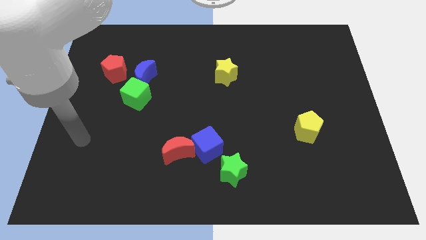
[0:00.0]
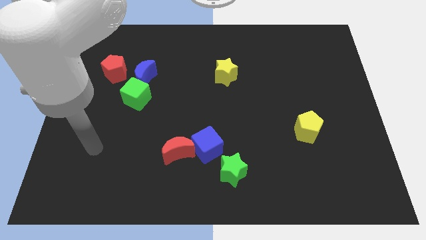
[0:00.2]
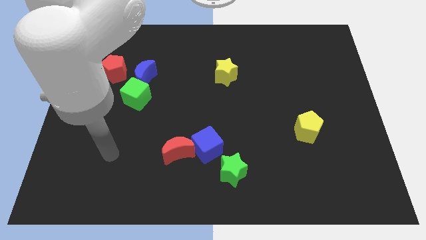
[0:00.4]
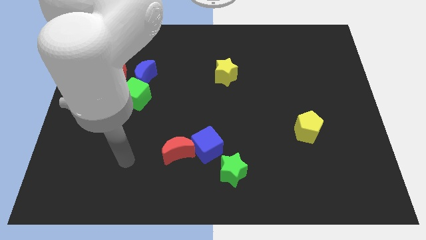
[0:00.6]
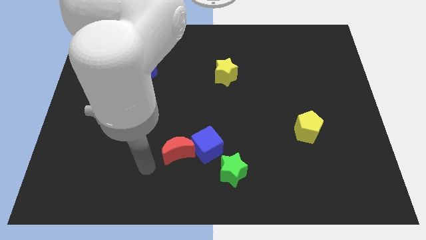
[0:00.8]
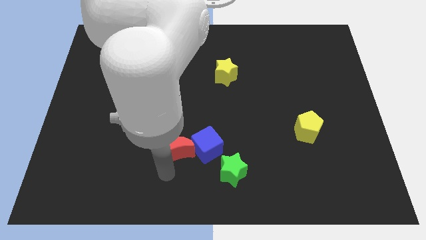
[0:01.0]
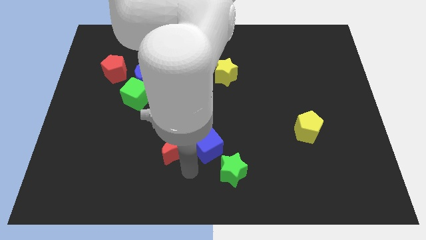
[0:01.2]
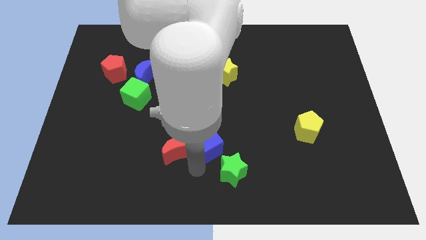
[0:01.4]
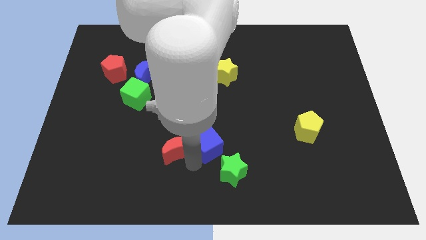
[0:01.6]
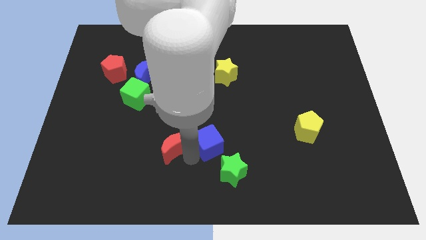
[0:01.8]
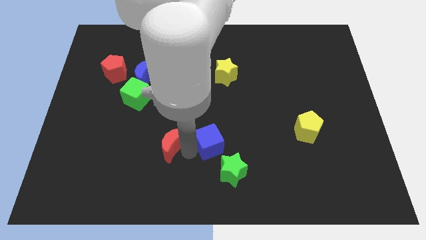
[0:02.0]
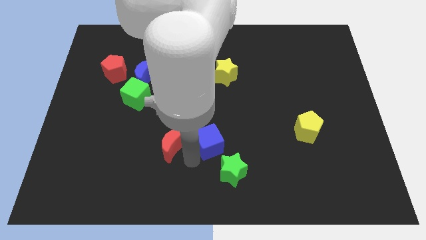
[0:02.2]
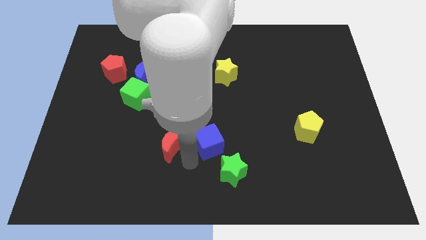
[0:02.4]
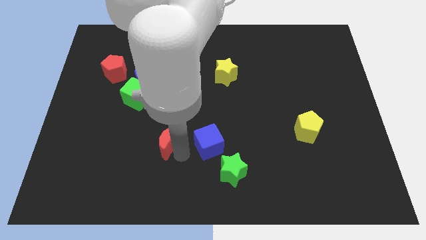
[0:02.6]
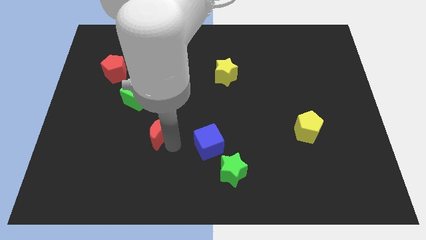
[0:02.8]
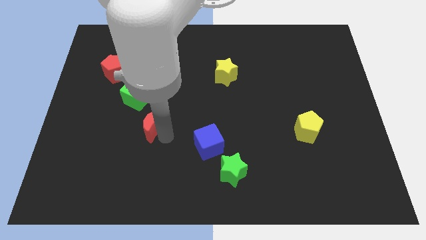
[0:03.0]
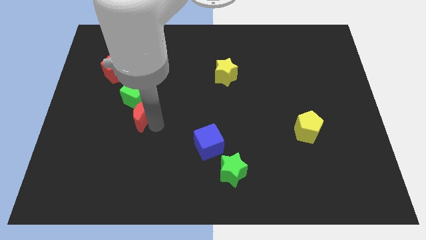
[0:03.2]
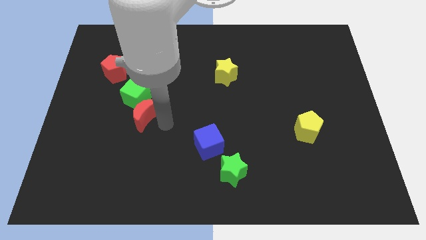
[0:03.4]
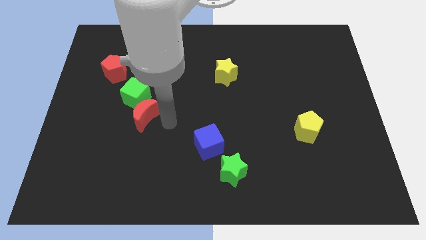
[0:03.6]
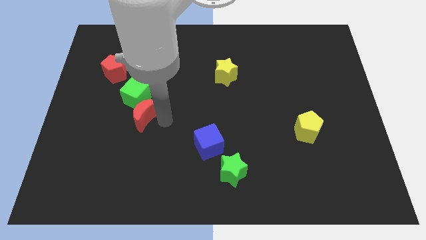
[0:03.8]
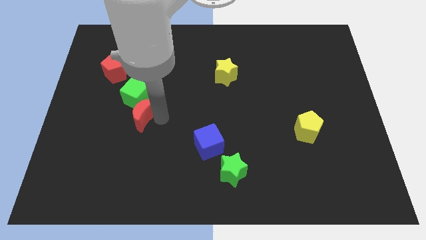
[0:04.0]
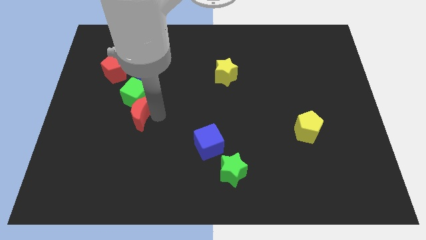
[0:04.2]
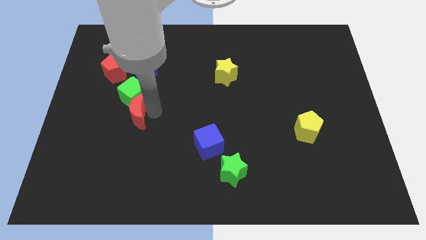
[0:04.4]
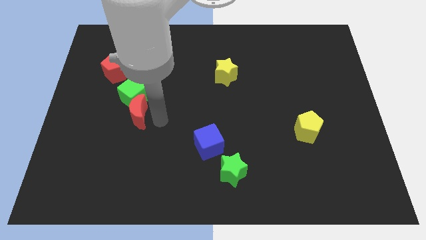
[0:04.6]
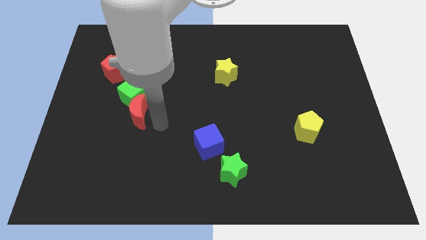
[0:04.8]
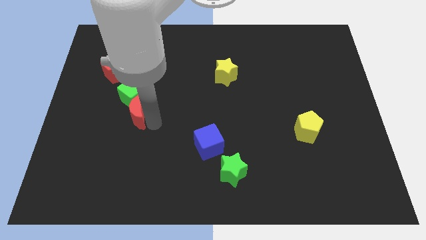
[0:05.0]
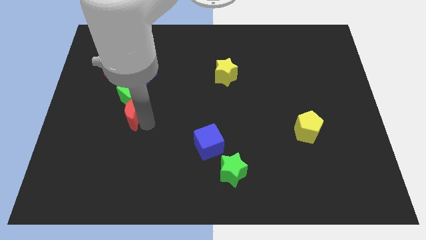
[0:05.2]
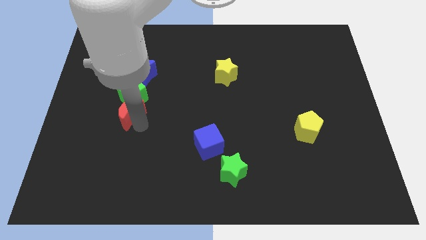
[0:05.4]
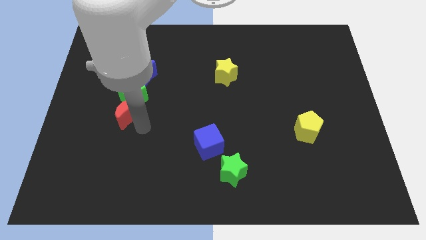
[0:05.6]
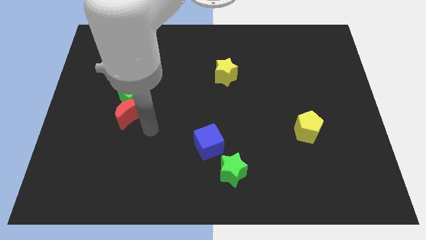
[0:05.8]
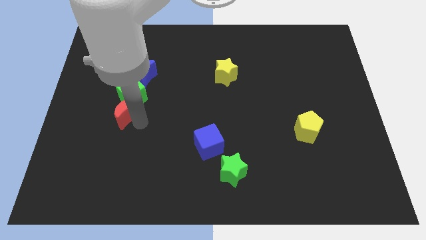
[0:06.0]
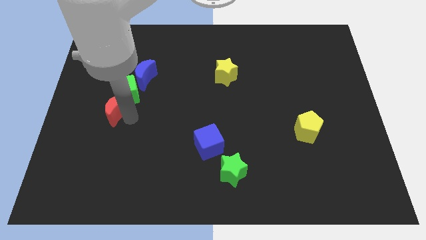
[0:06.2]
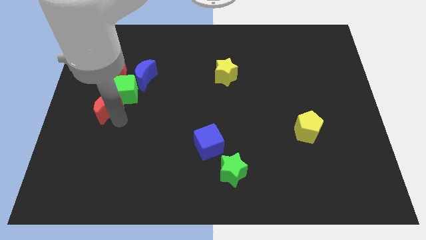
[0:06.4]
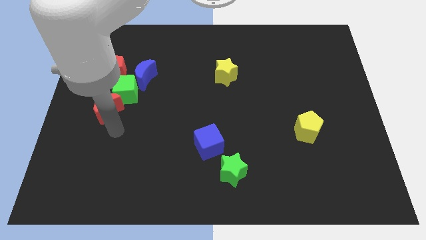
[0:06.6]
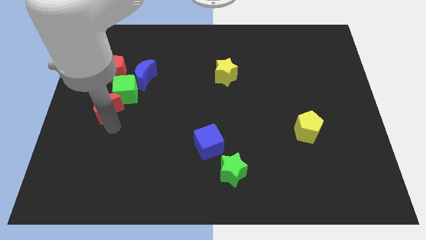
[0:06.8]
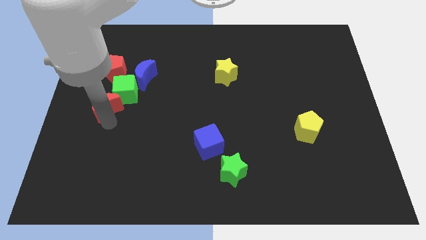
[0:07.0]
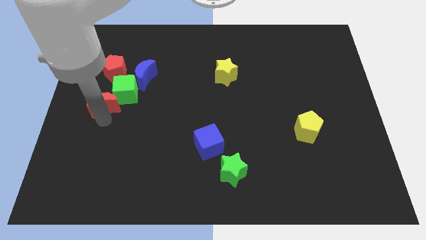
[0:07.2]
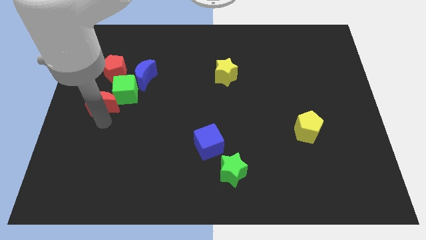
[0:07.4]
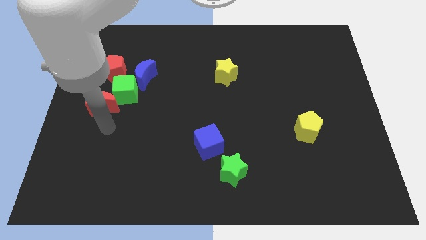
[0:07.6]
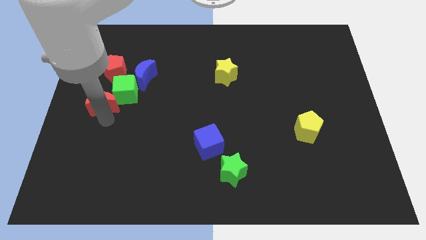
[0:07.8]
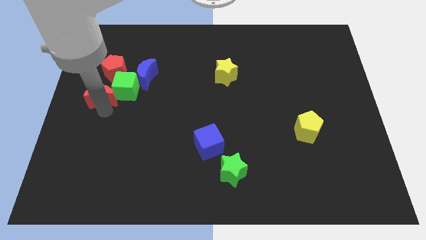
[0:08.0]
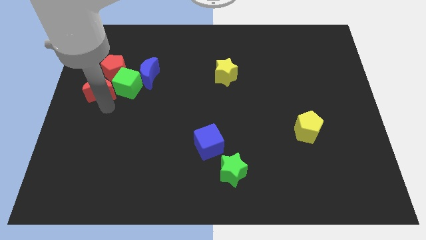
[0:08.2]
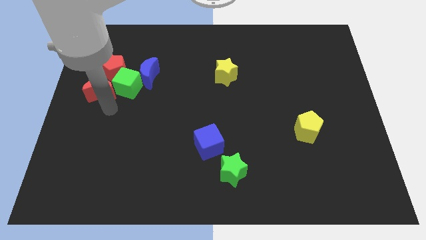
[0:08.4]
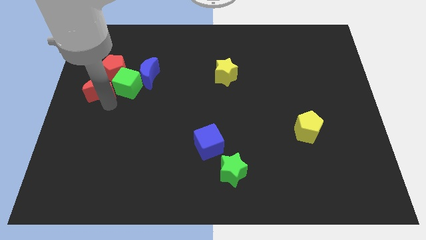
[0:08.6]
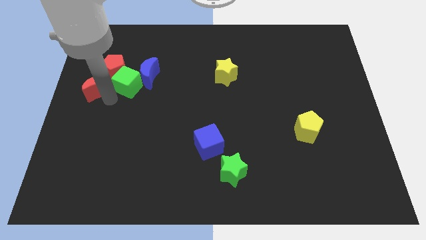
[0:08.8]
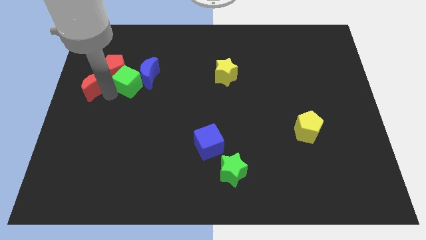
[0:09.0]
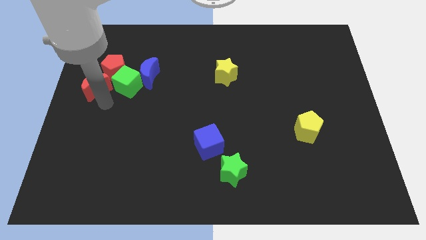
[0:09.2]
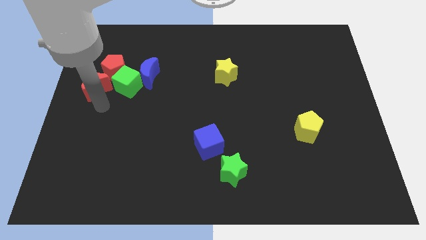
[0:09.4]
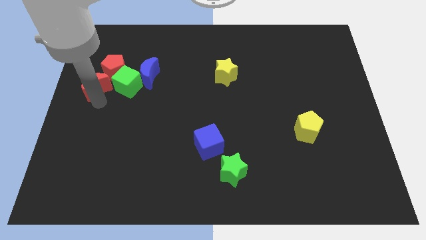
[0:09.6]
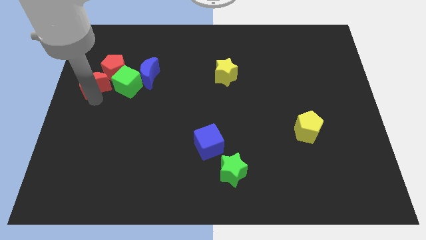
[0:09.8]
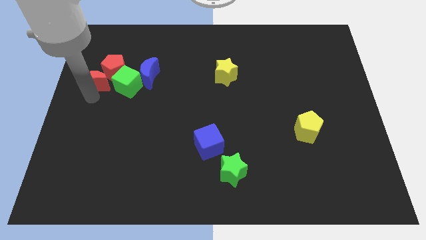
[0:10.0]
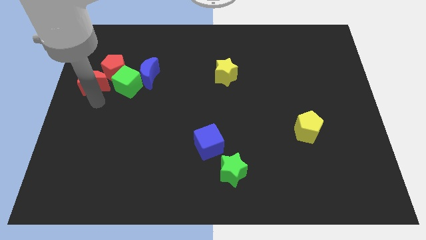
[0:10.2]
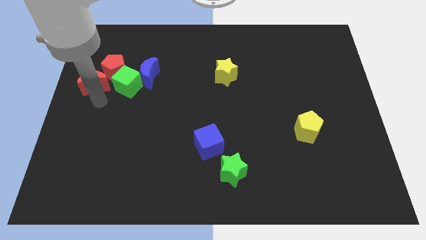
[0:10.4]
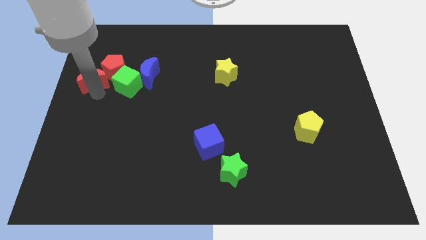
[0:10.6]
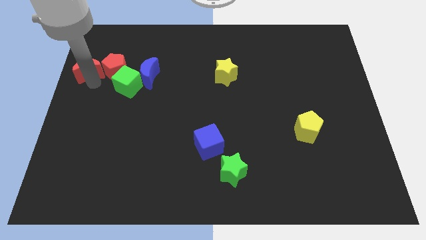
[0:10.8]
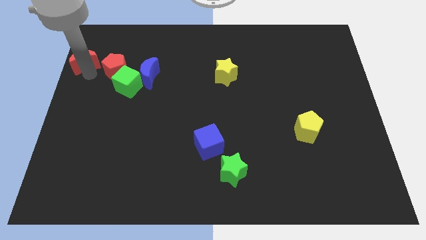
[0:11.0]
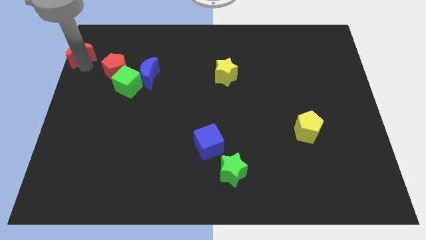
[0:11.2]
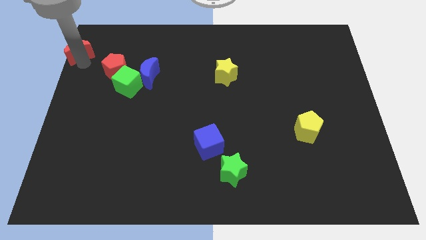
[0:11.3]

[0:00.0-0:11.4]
put the red moon to the top left

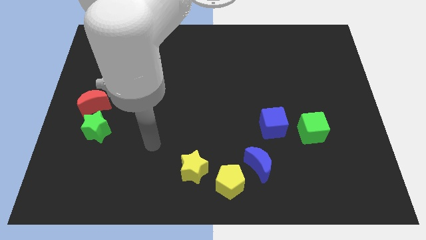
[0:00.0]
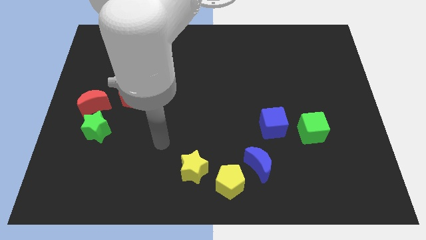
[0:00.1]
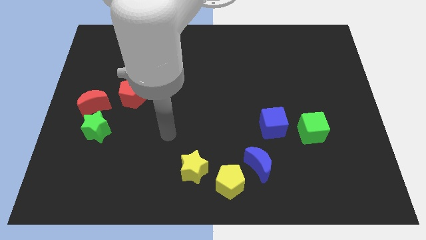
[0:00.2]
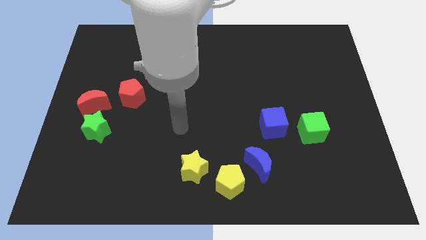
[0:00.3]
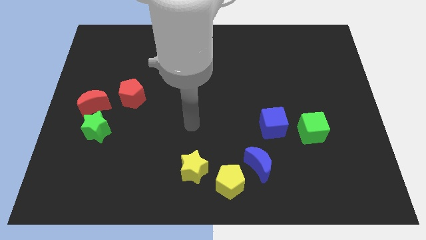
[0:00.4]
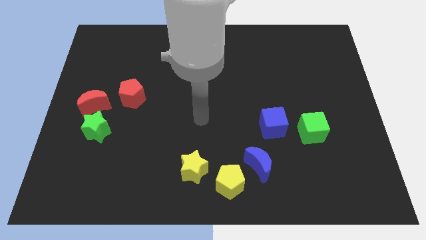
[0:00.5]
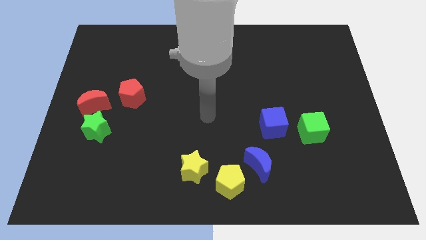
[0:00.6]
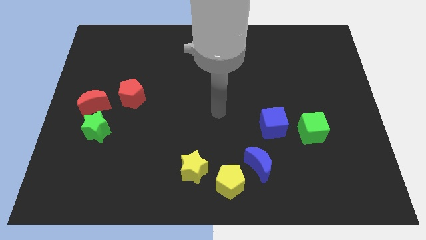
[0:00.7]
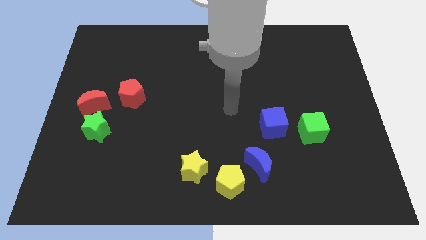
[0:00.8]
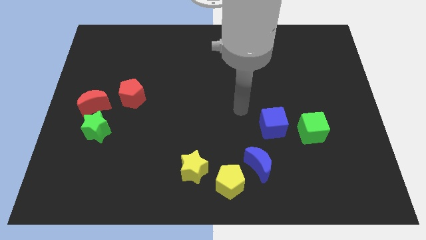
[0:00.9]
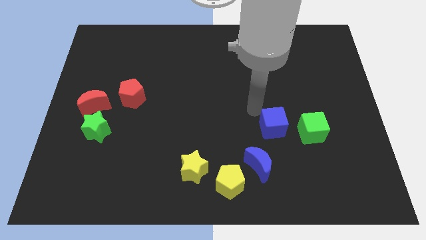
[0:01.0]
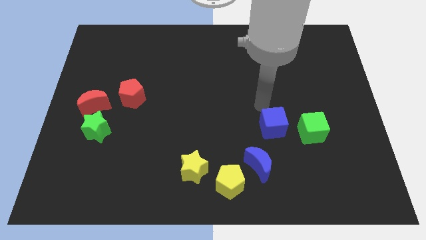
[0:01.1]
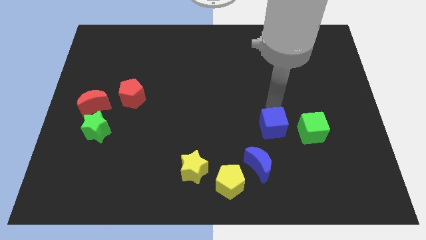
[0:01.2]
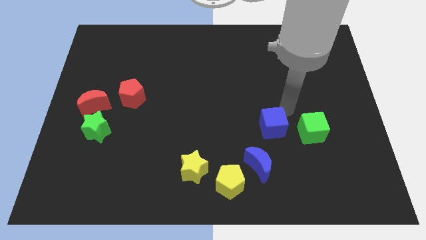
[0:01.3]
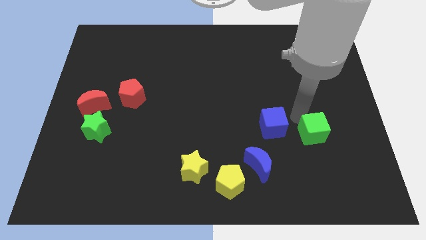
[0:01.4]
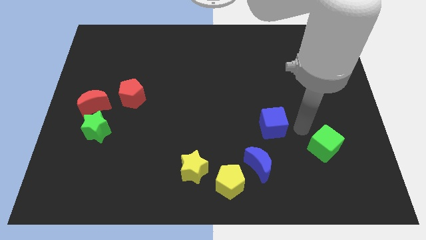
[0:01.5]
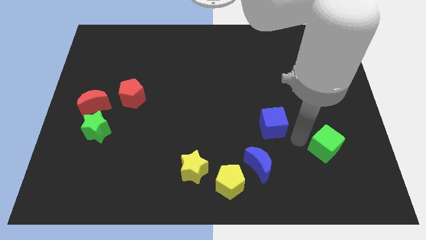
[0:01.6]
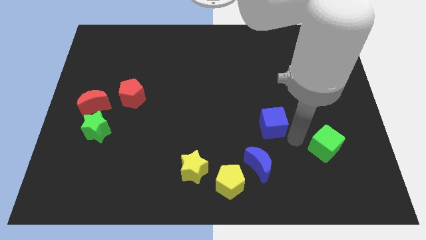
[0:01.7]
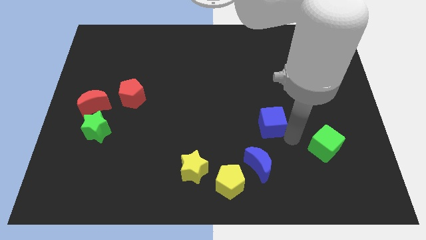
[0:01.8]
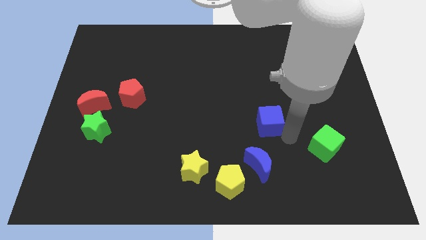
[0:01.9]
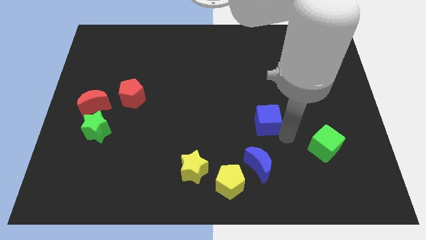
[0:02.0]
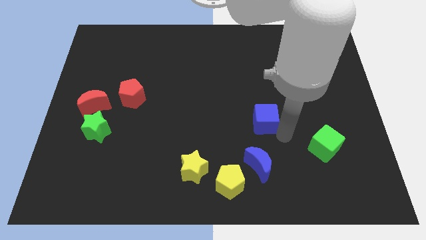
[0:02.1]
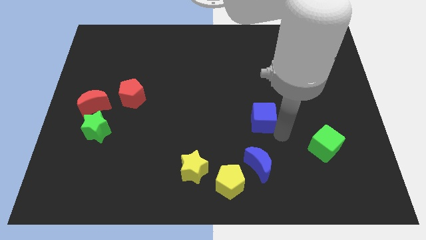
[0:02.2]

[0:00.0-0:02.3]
put the blue cube to the center

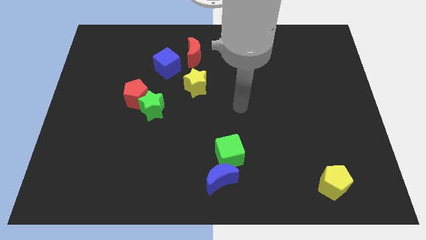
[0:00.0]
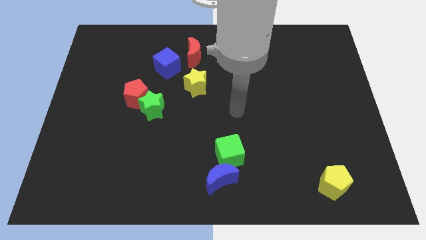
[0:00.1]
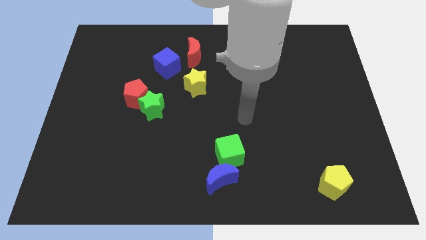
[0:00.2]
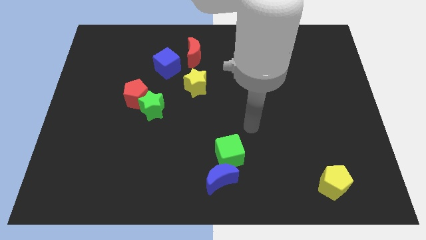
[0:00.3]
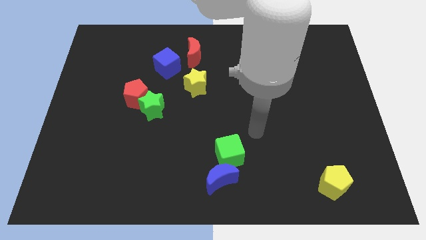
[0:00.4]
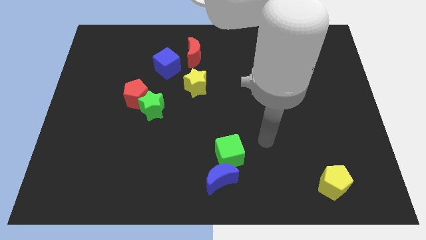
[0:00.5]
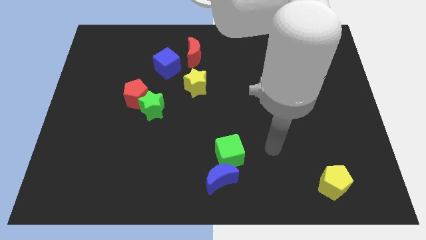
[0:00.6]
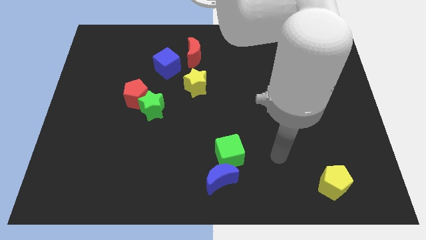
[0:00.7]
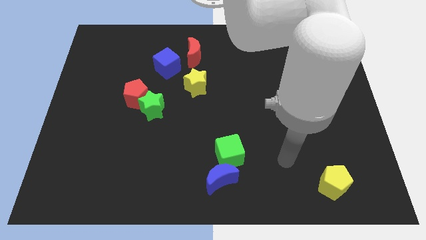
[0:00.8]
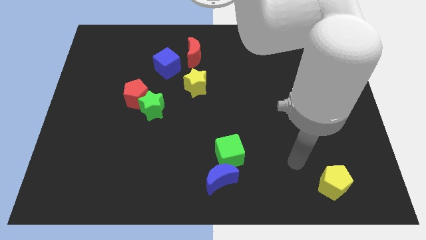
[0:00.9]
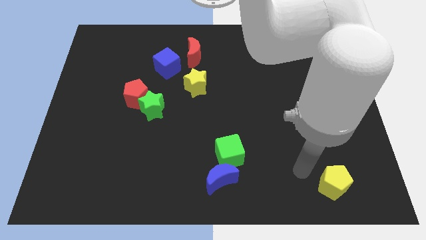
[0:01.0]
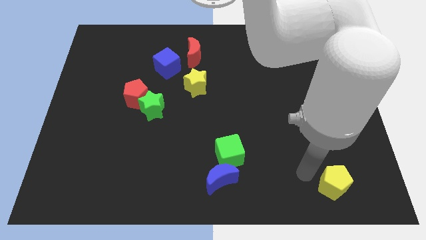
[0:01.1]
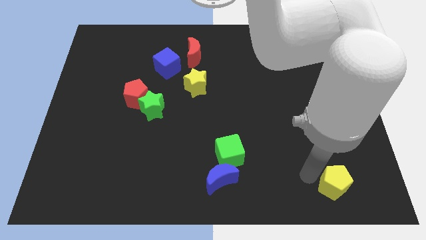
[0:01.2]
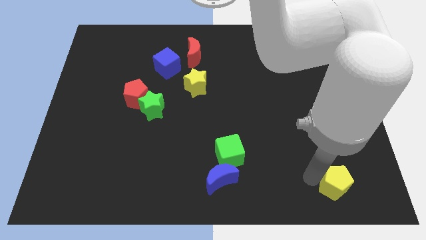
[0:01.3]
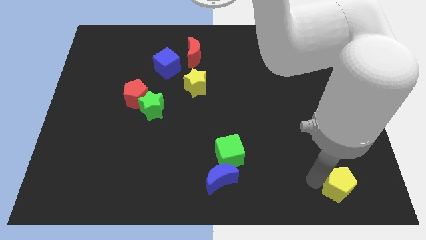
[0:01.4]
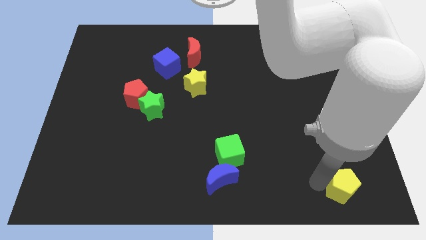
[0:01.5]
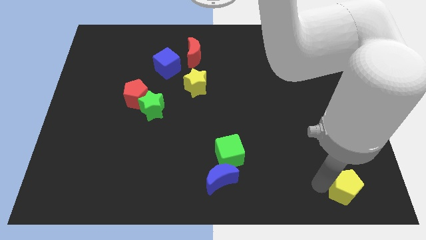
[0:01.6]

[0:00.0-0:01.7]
slide the yellow pentagon to the bottom right
